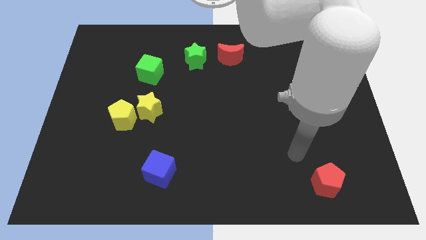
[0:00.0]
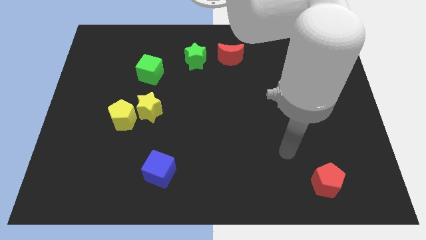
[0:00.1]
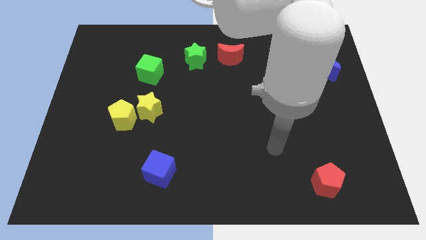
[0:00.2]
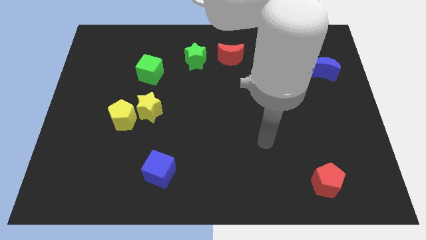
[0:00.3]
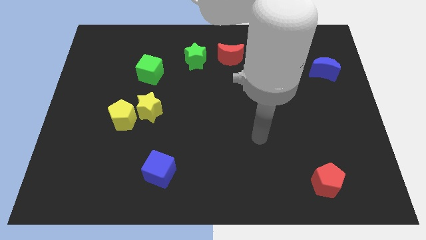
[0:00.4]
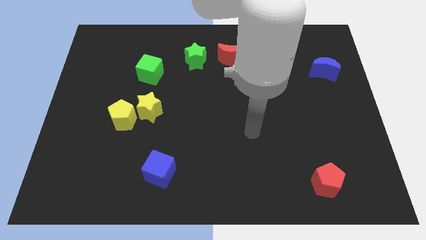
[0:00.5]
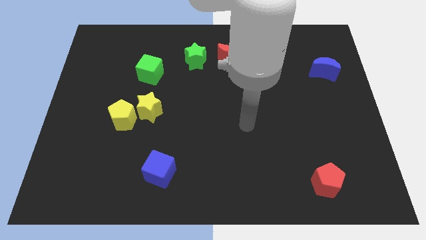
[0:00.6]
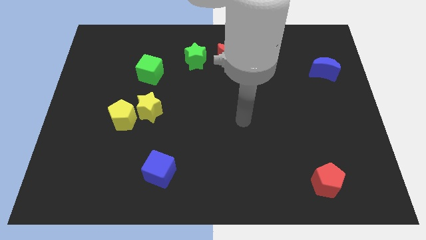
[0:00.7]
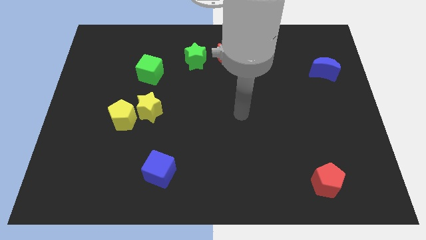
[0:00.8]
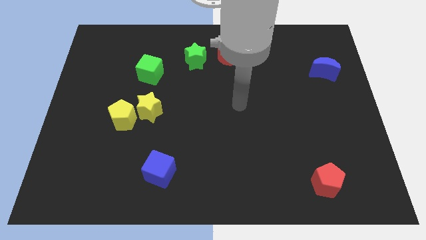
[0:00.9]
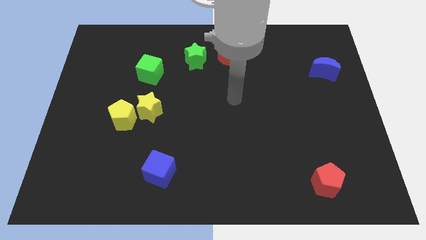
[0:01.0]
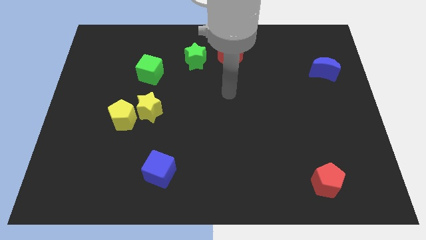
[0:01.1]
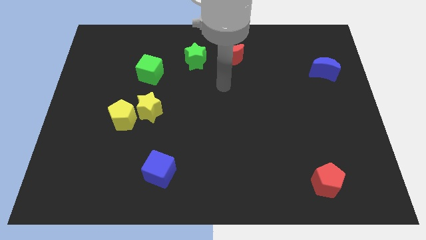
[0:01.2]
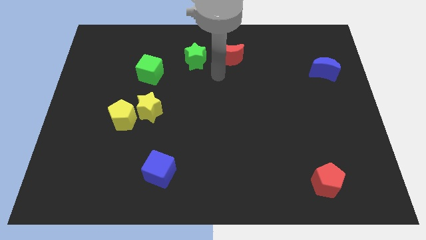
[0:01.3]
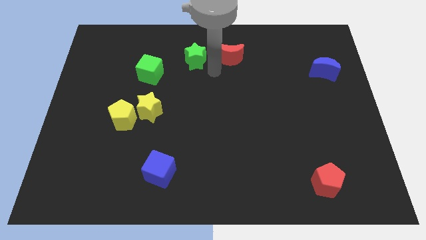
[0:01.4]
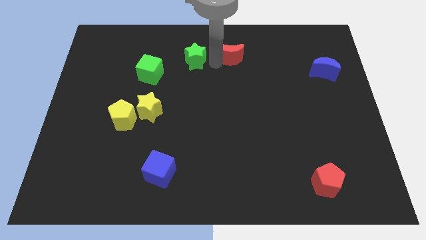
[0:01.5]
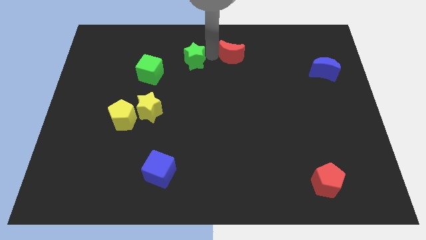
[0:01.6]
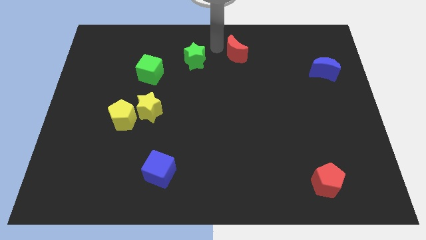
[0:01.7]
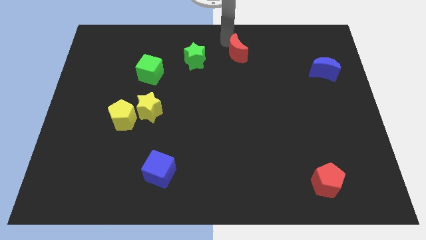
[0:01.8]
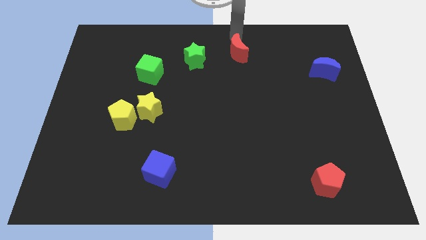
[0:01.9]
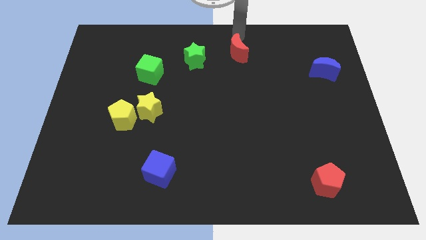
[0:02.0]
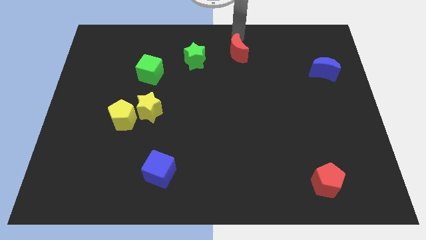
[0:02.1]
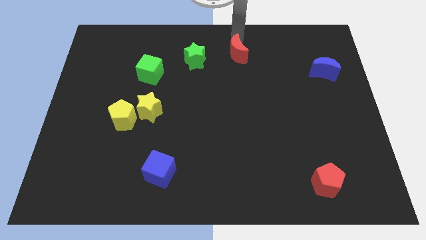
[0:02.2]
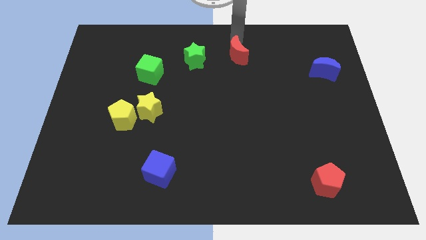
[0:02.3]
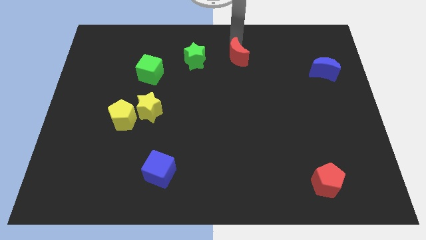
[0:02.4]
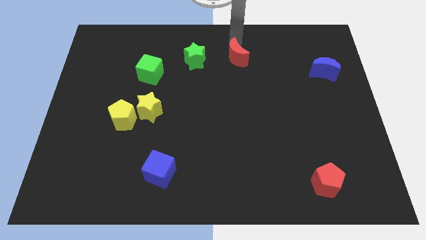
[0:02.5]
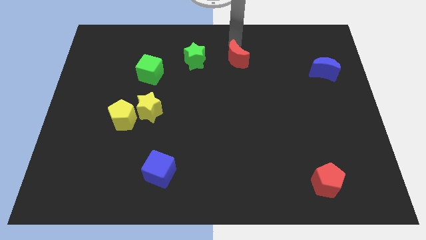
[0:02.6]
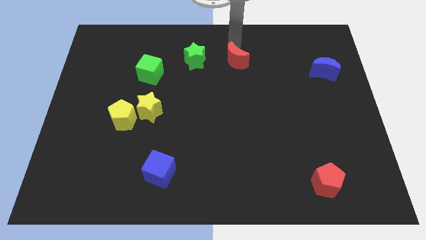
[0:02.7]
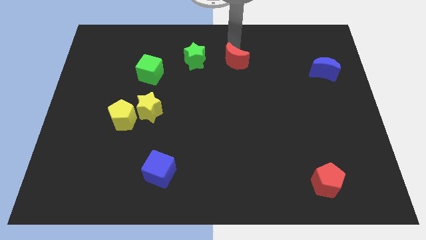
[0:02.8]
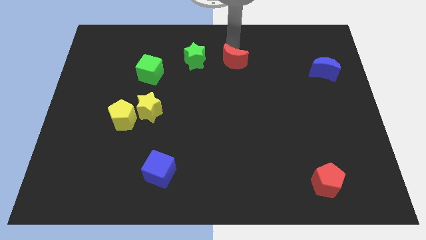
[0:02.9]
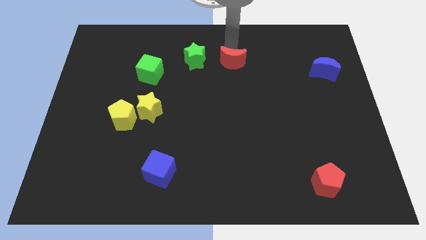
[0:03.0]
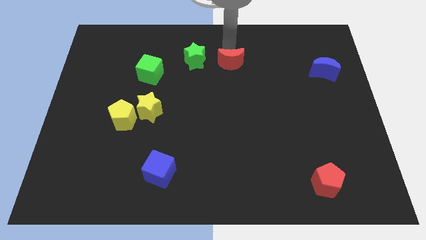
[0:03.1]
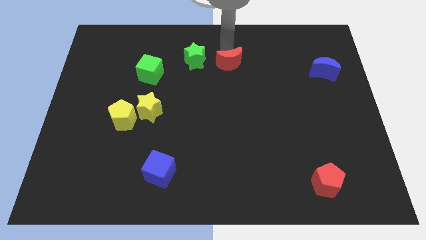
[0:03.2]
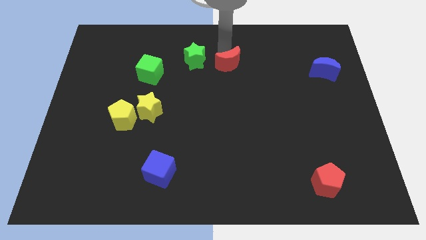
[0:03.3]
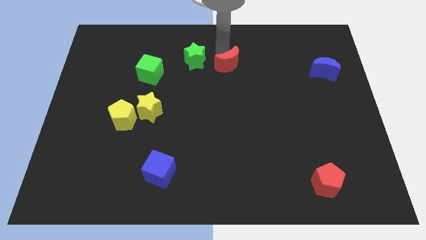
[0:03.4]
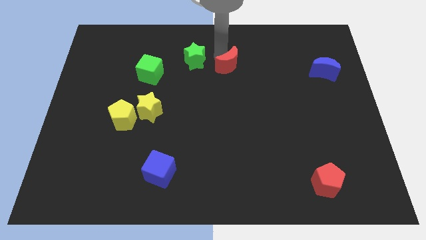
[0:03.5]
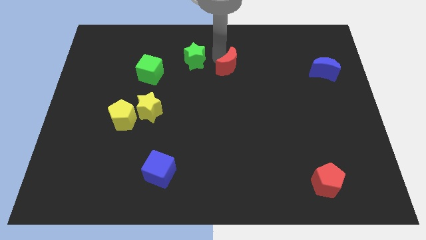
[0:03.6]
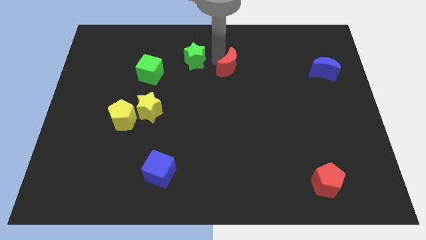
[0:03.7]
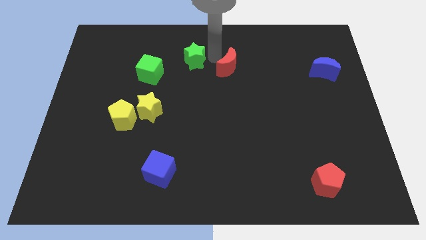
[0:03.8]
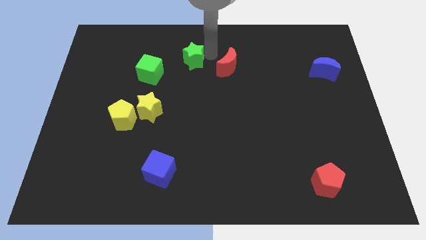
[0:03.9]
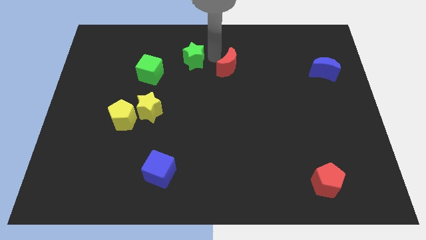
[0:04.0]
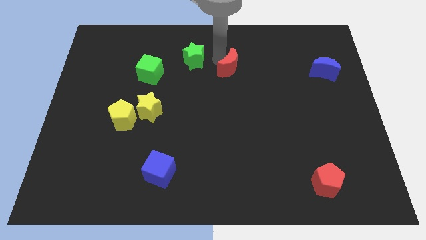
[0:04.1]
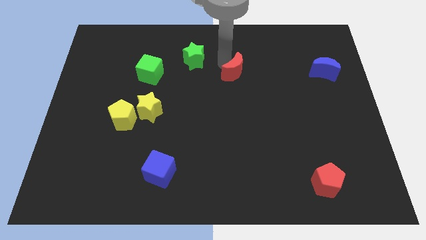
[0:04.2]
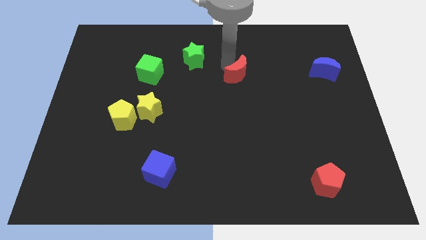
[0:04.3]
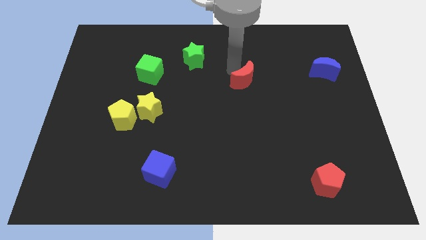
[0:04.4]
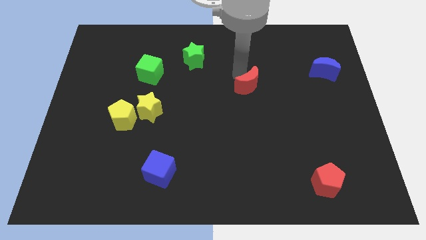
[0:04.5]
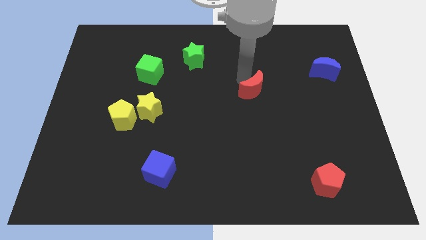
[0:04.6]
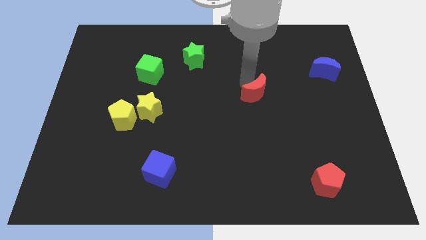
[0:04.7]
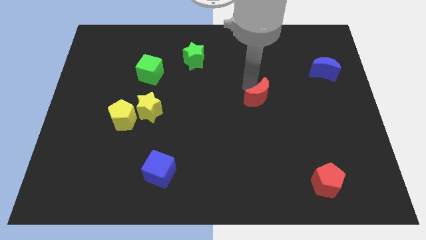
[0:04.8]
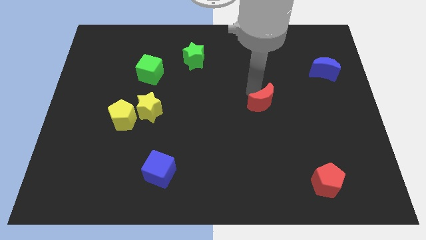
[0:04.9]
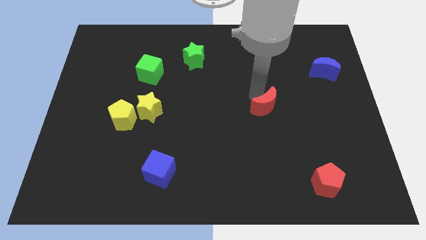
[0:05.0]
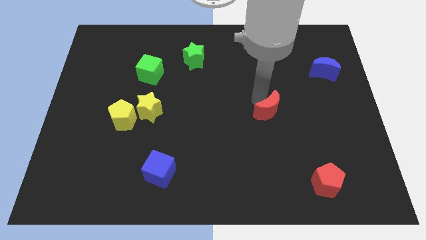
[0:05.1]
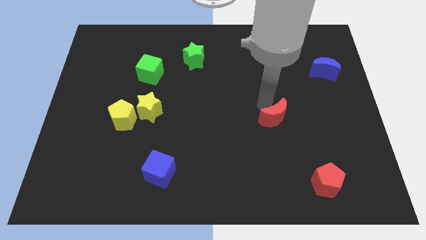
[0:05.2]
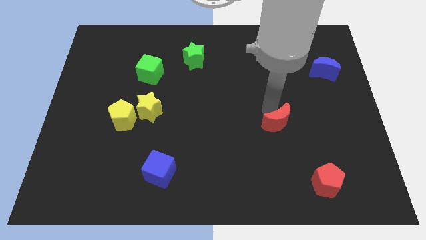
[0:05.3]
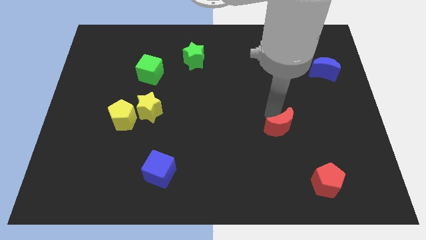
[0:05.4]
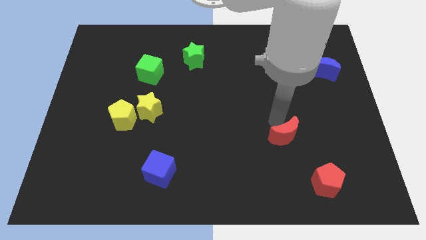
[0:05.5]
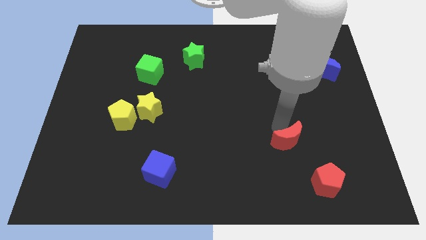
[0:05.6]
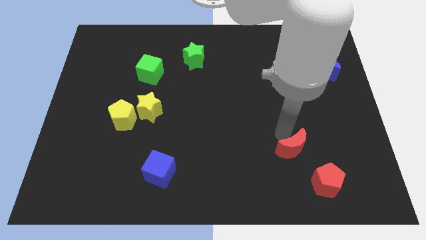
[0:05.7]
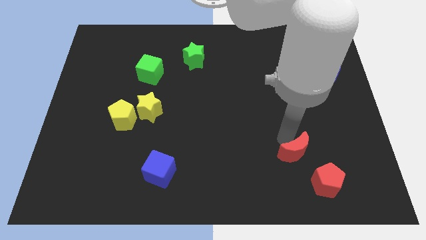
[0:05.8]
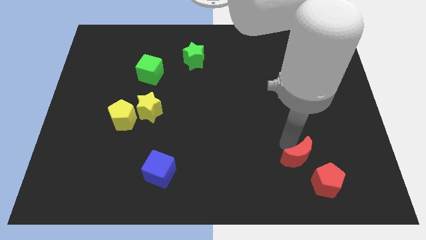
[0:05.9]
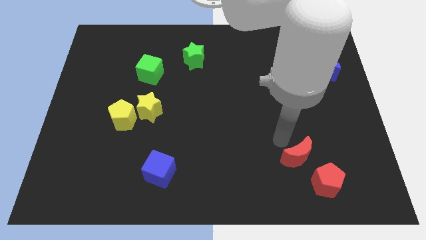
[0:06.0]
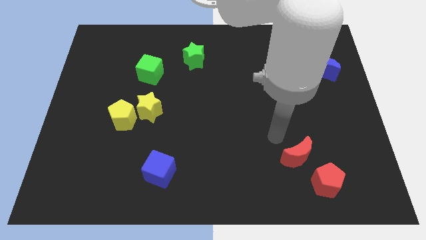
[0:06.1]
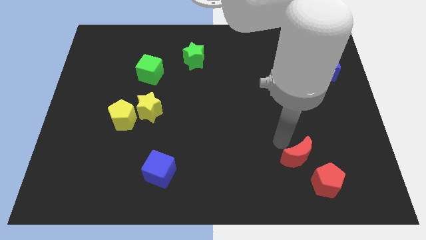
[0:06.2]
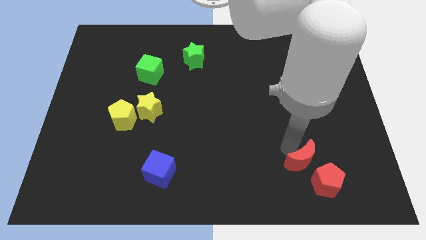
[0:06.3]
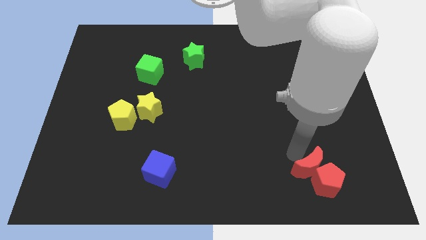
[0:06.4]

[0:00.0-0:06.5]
slide the red moon towards the red pentagon

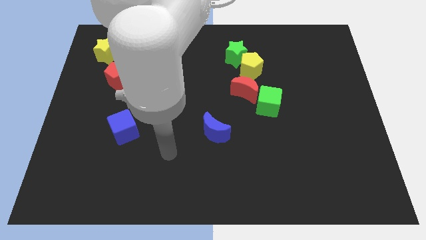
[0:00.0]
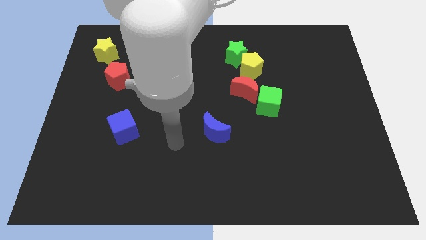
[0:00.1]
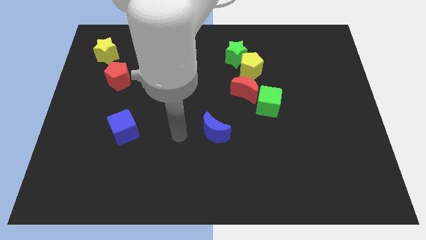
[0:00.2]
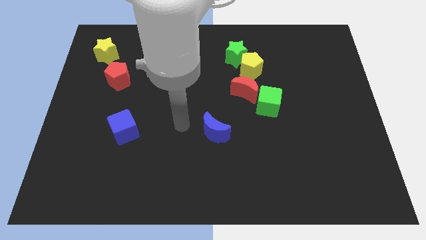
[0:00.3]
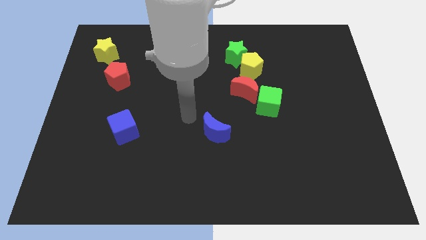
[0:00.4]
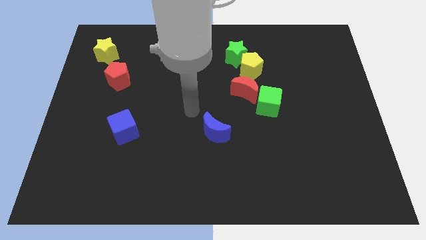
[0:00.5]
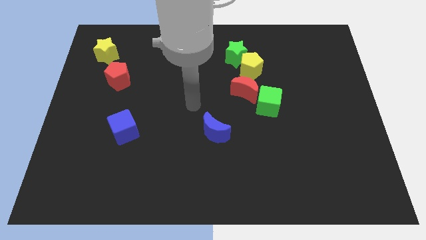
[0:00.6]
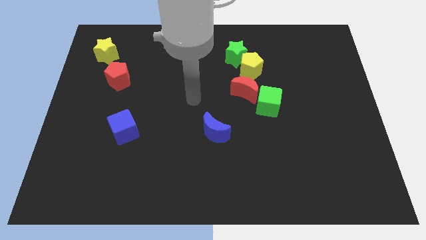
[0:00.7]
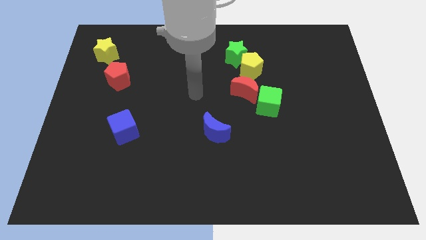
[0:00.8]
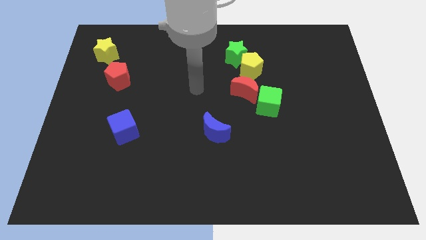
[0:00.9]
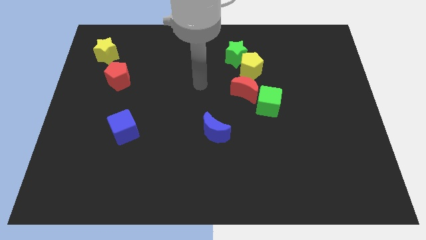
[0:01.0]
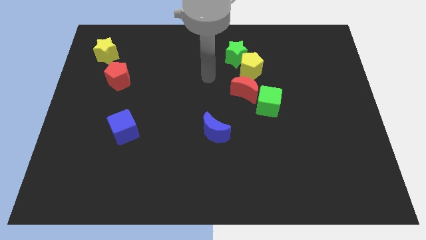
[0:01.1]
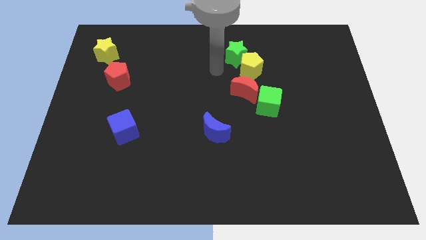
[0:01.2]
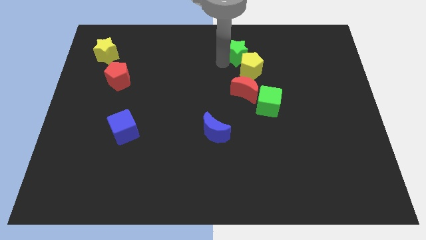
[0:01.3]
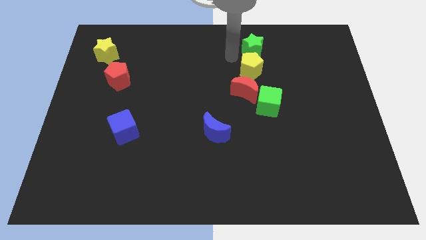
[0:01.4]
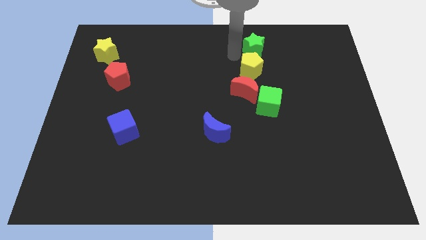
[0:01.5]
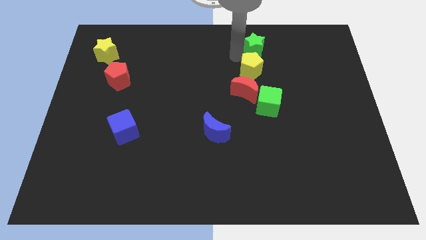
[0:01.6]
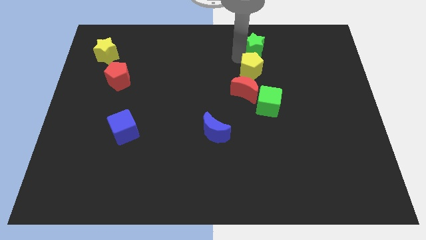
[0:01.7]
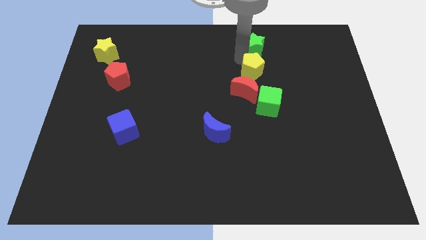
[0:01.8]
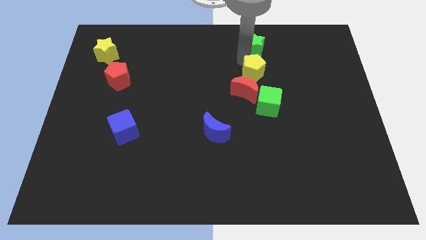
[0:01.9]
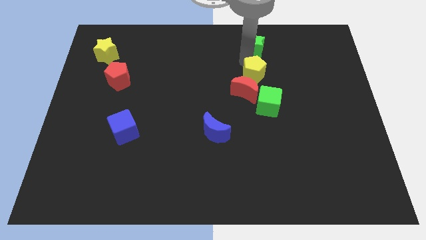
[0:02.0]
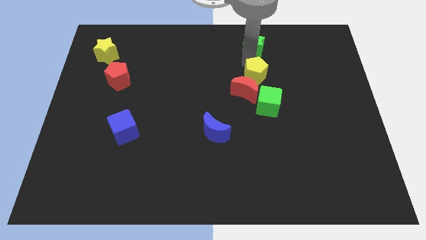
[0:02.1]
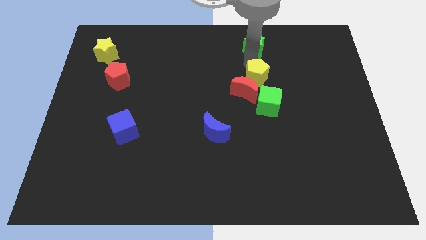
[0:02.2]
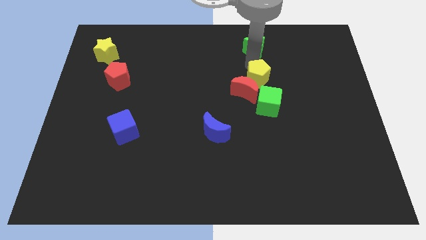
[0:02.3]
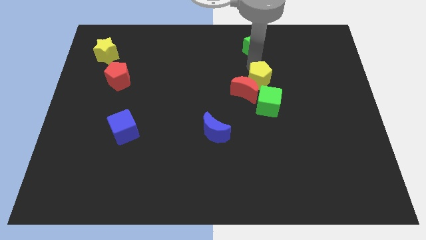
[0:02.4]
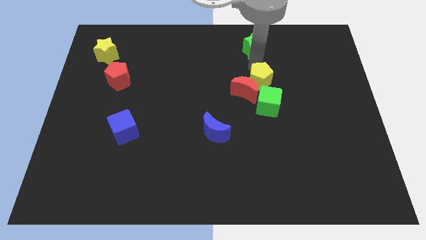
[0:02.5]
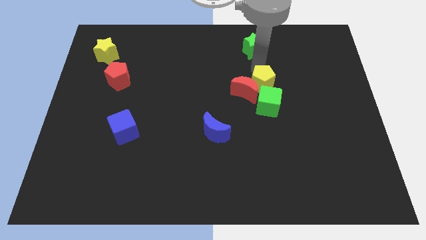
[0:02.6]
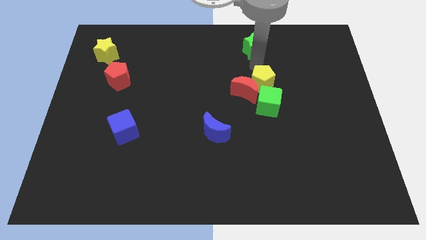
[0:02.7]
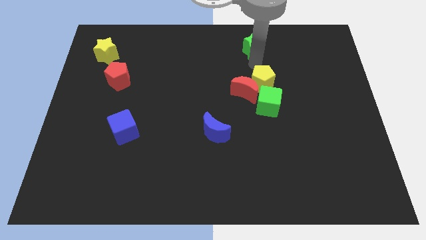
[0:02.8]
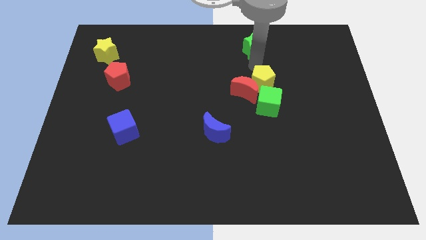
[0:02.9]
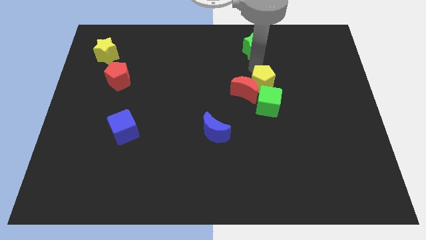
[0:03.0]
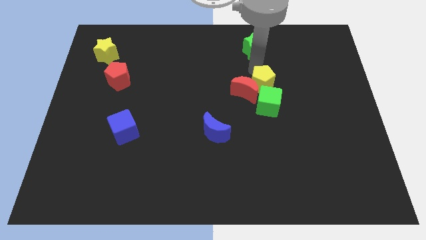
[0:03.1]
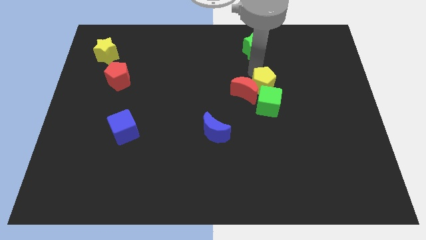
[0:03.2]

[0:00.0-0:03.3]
put the yellow pentagon towards the green cube
